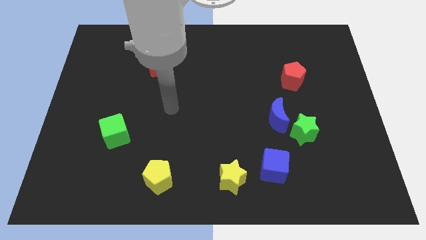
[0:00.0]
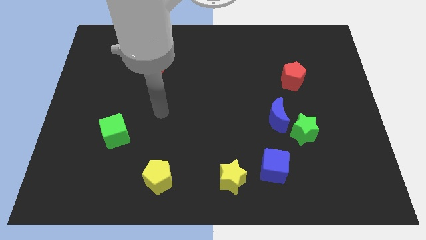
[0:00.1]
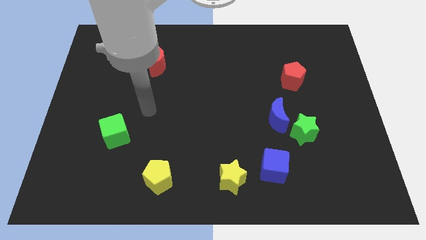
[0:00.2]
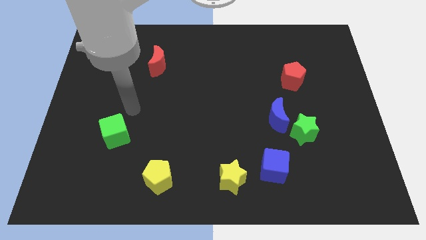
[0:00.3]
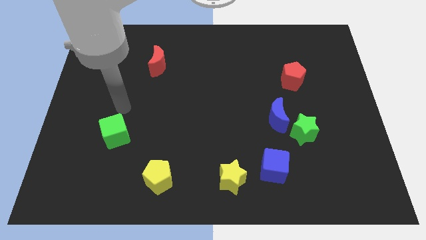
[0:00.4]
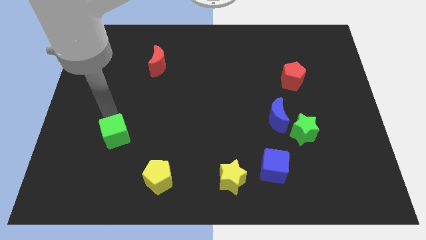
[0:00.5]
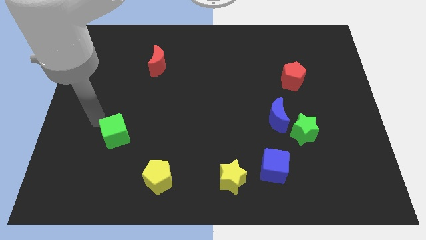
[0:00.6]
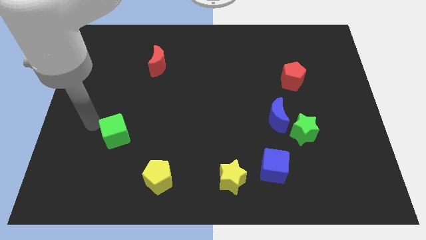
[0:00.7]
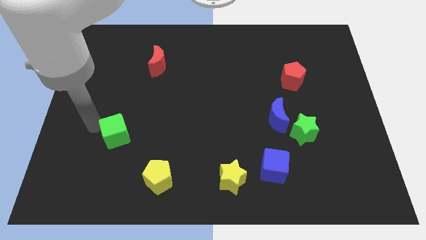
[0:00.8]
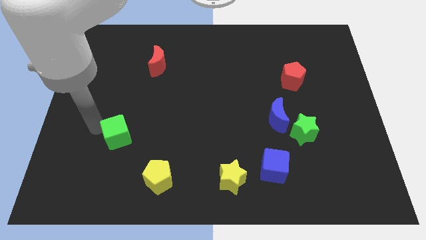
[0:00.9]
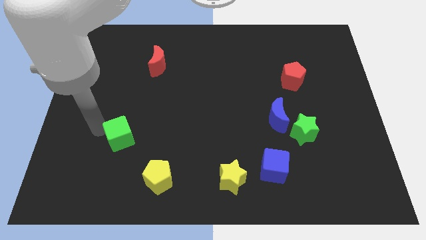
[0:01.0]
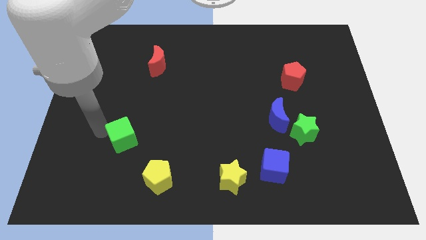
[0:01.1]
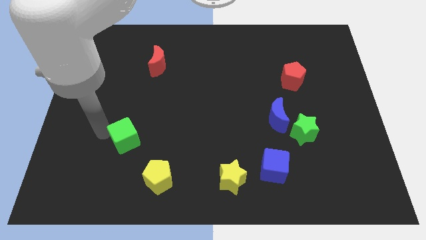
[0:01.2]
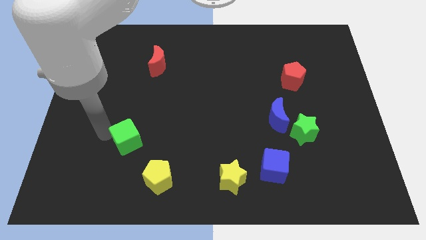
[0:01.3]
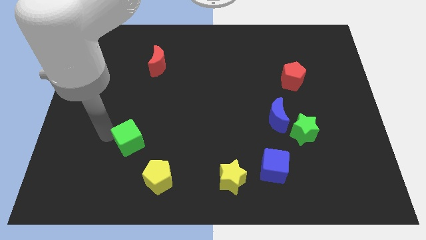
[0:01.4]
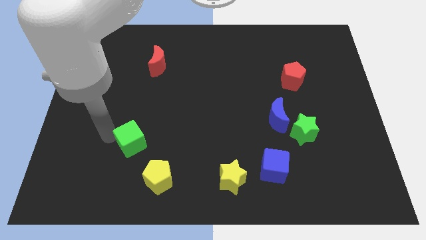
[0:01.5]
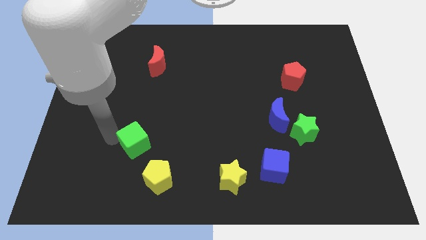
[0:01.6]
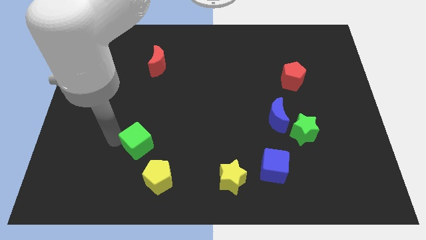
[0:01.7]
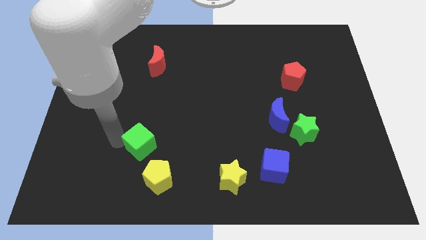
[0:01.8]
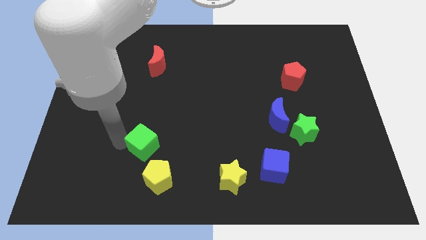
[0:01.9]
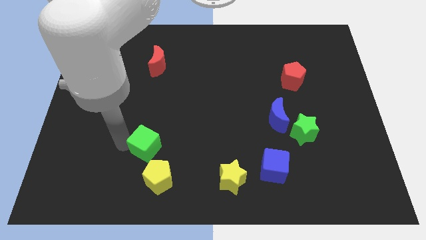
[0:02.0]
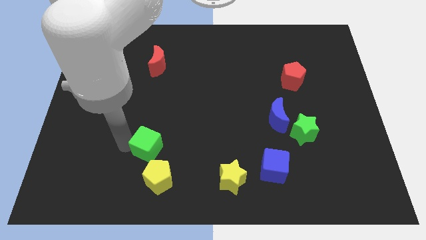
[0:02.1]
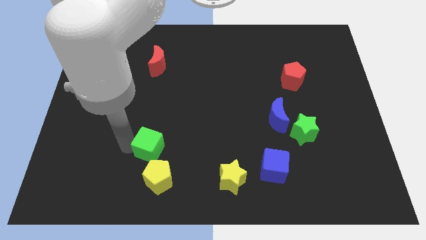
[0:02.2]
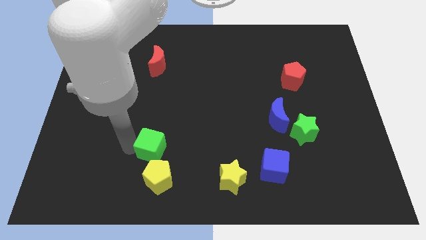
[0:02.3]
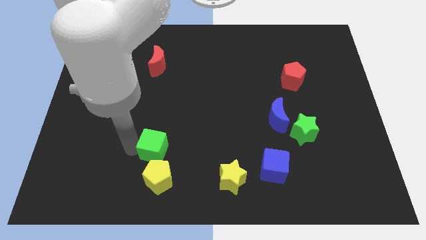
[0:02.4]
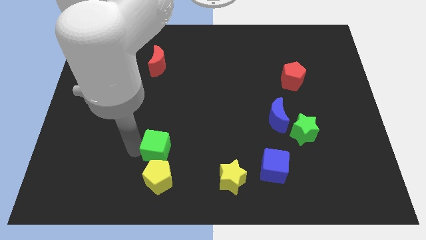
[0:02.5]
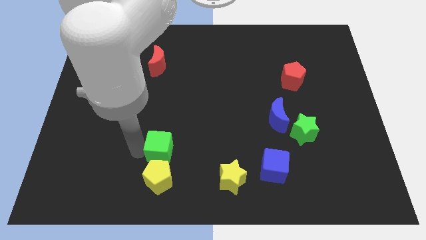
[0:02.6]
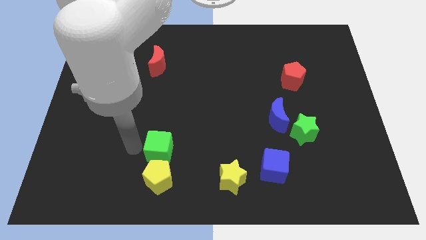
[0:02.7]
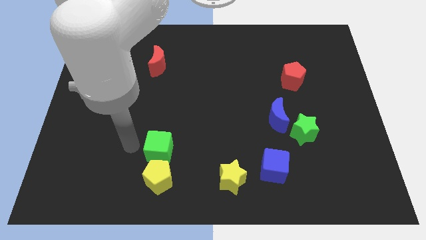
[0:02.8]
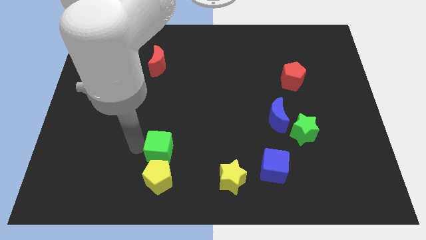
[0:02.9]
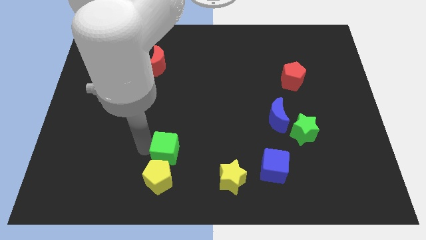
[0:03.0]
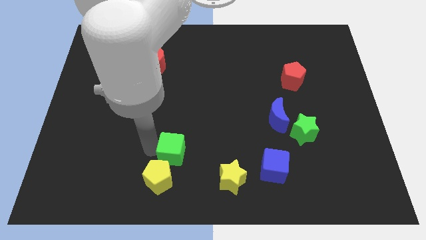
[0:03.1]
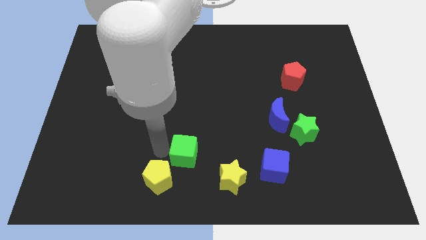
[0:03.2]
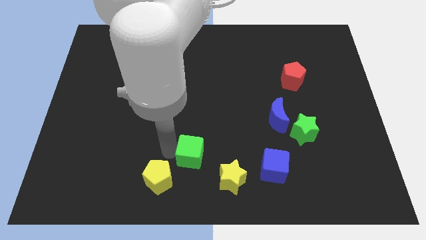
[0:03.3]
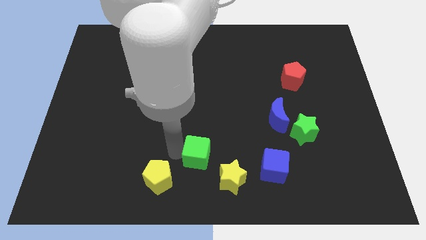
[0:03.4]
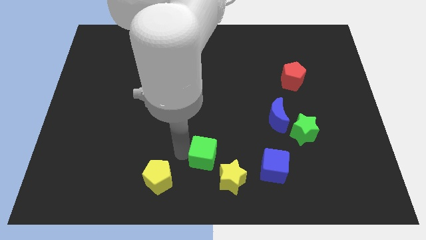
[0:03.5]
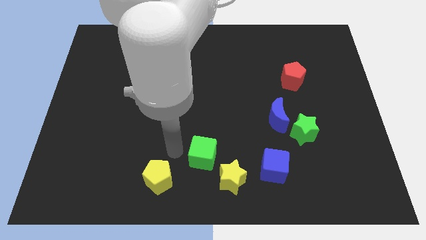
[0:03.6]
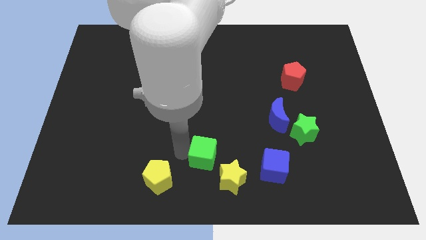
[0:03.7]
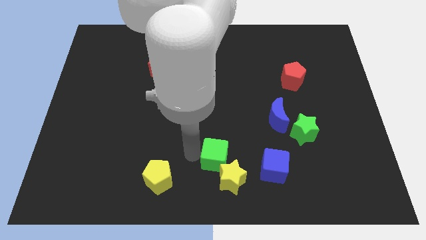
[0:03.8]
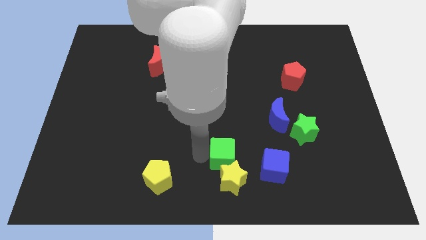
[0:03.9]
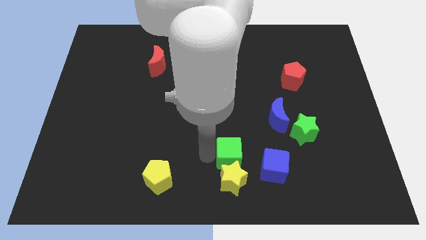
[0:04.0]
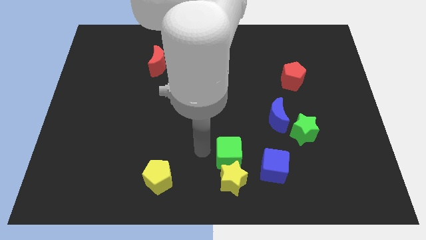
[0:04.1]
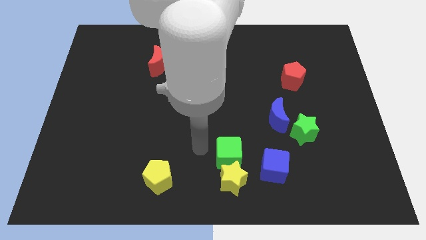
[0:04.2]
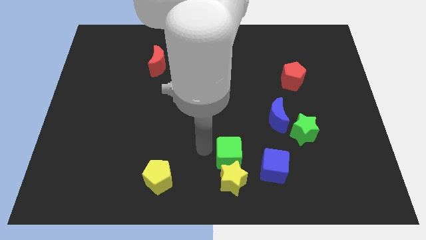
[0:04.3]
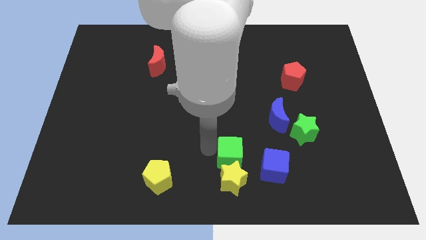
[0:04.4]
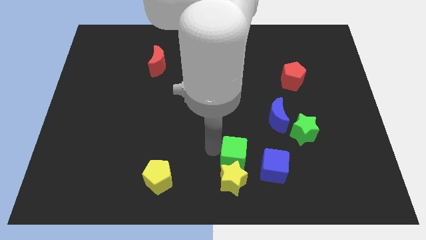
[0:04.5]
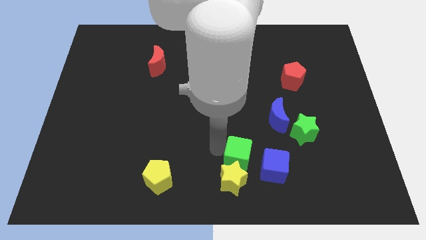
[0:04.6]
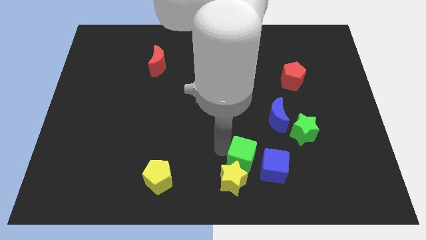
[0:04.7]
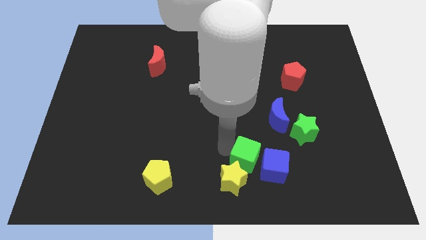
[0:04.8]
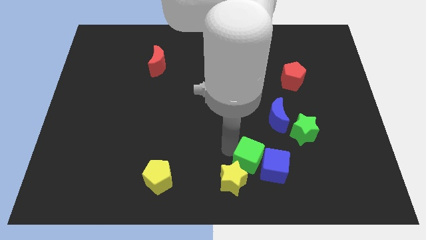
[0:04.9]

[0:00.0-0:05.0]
slide the green cube close to the blue cube

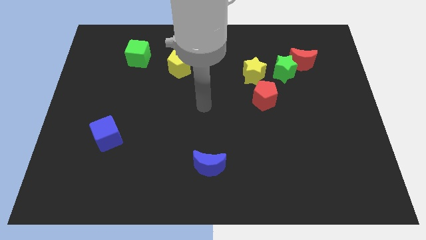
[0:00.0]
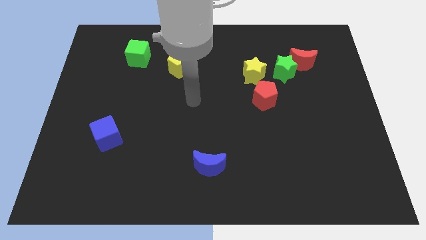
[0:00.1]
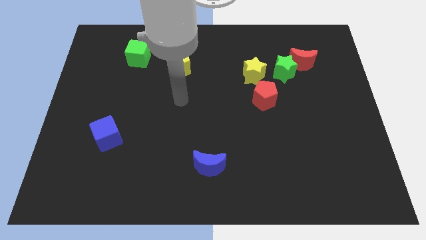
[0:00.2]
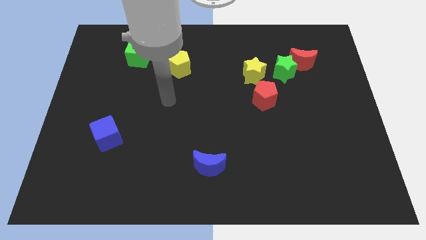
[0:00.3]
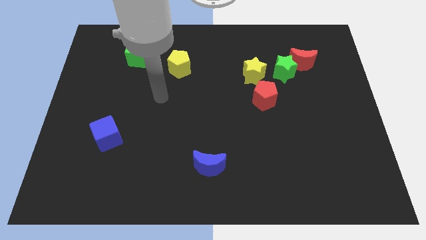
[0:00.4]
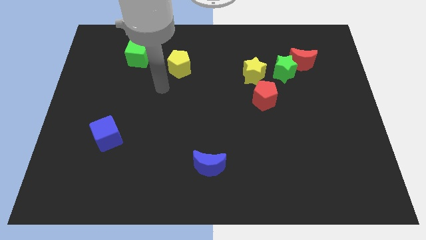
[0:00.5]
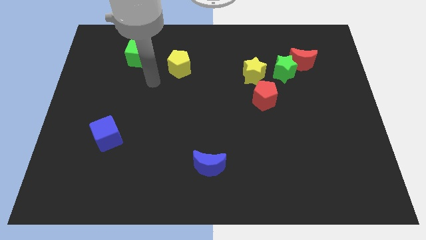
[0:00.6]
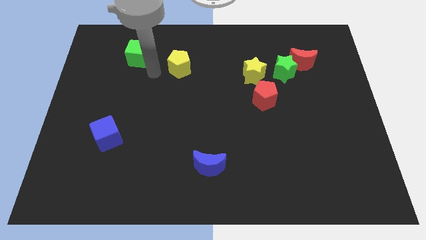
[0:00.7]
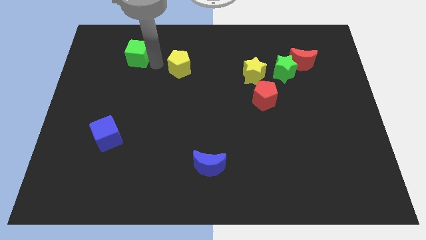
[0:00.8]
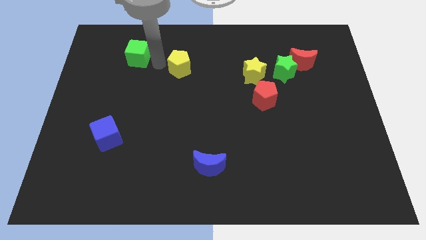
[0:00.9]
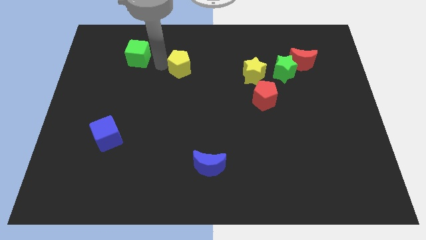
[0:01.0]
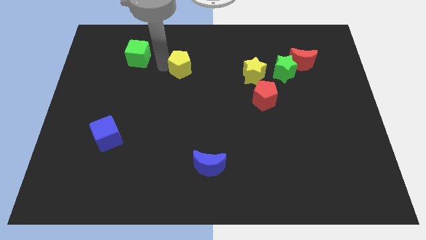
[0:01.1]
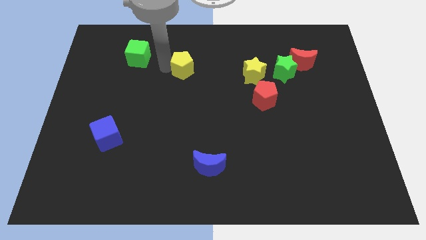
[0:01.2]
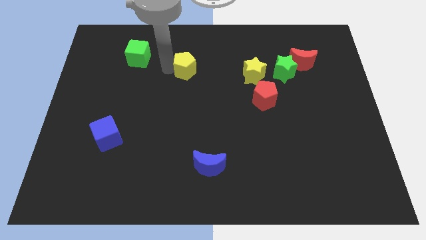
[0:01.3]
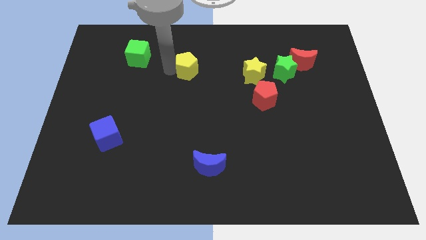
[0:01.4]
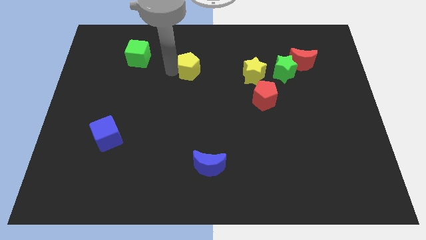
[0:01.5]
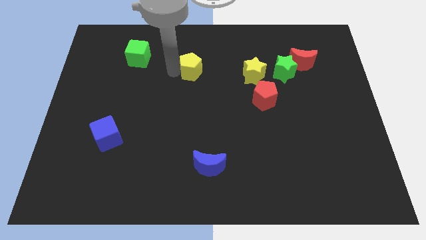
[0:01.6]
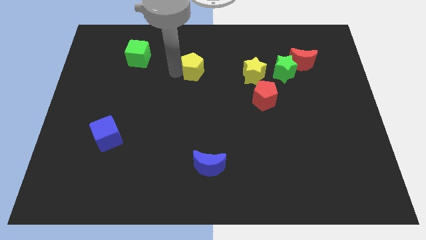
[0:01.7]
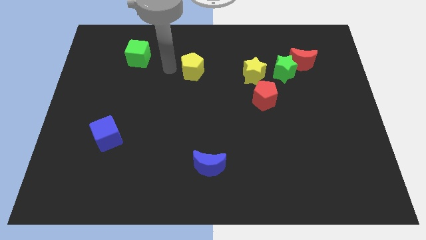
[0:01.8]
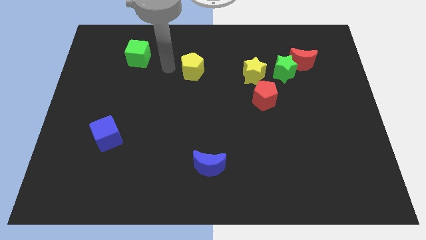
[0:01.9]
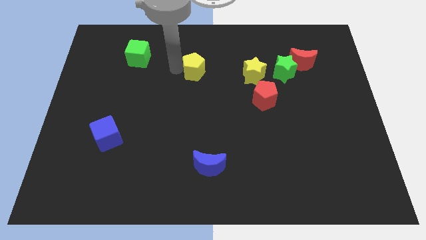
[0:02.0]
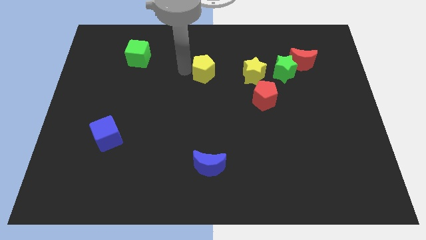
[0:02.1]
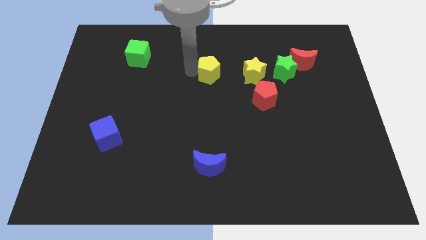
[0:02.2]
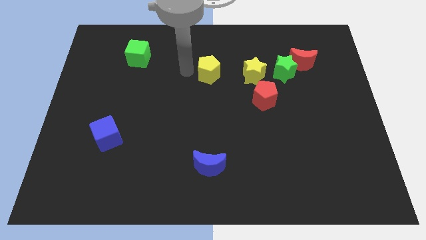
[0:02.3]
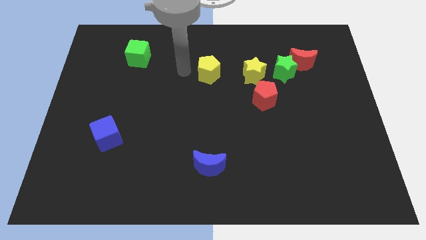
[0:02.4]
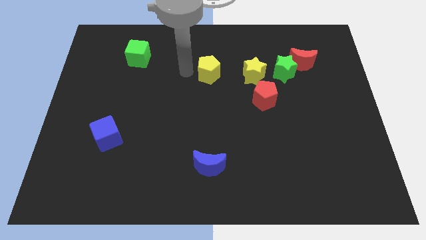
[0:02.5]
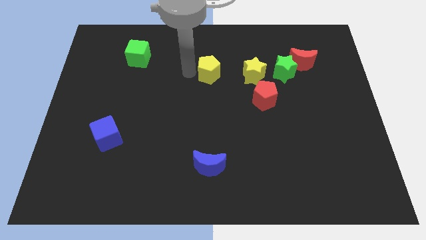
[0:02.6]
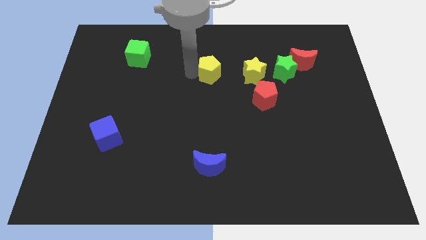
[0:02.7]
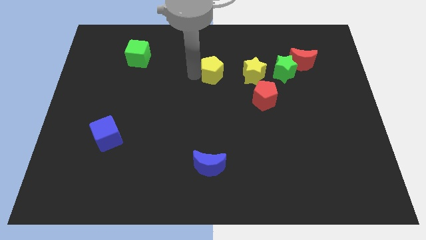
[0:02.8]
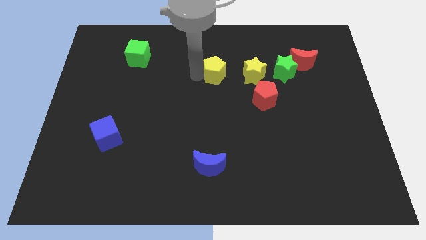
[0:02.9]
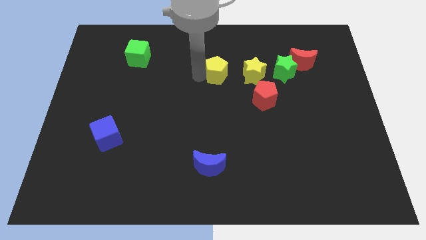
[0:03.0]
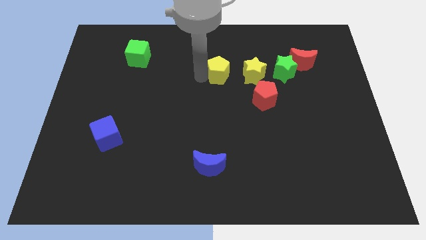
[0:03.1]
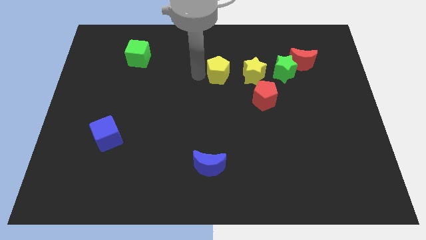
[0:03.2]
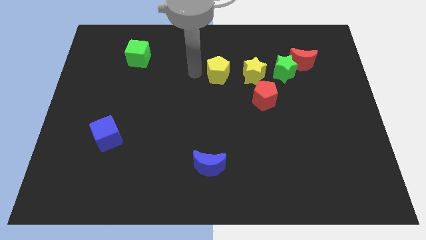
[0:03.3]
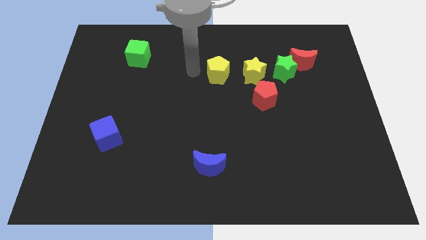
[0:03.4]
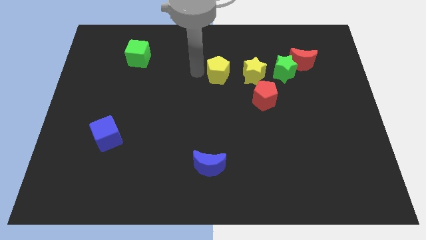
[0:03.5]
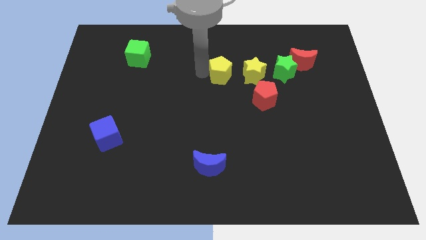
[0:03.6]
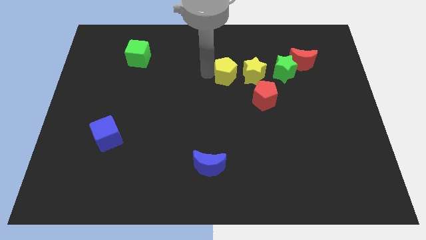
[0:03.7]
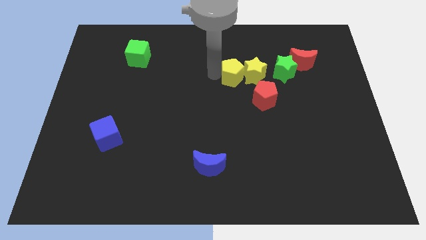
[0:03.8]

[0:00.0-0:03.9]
move the yellow pentagon to the yellow star
